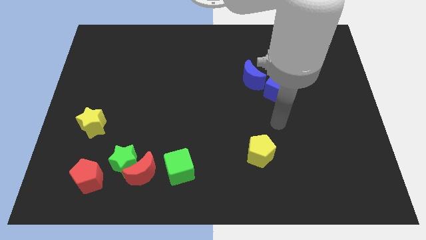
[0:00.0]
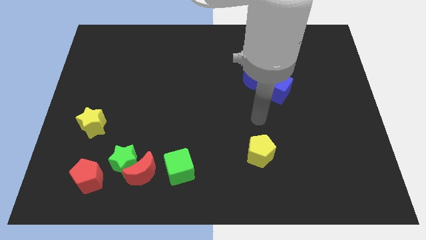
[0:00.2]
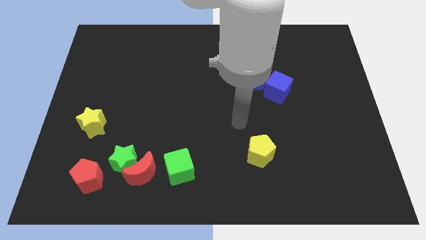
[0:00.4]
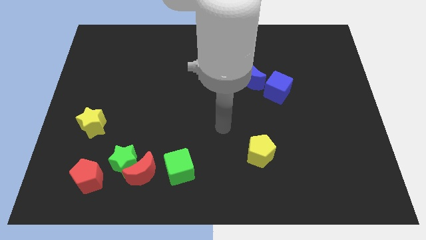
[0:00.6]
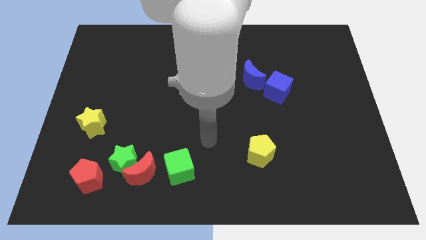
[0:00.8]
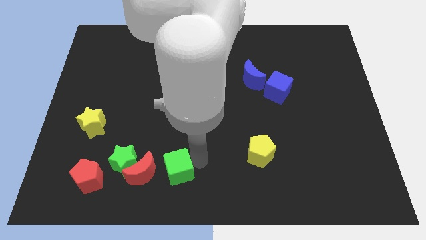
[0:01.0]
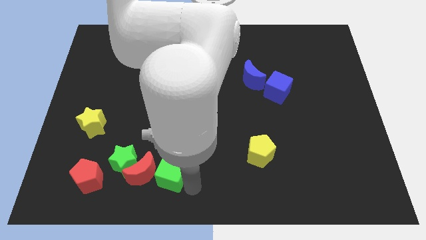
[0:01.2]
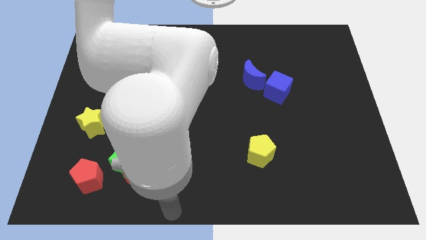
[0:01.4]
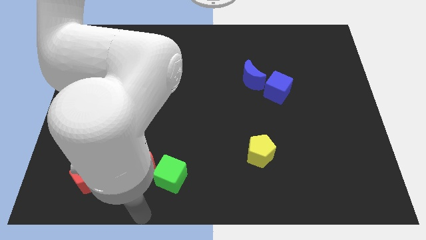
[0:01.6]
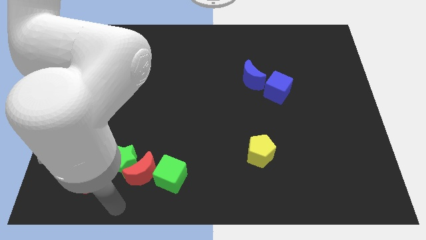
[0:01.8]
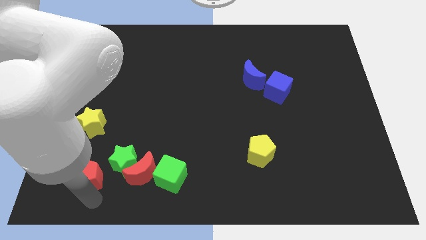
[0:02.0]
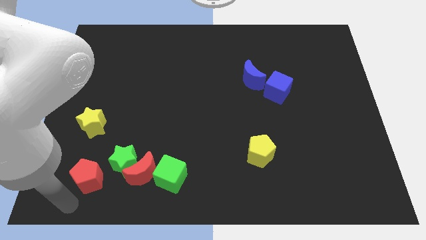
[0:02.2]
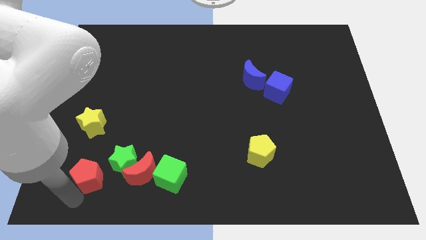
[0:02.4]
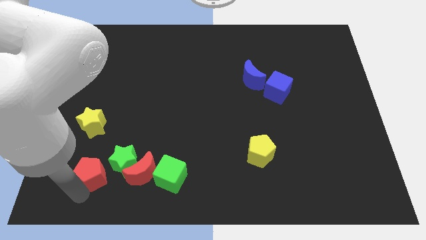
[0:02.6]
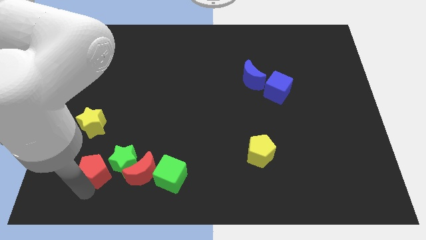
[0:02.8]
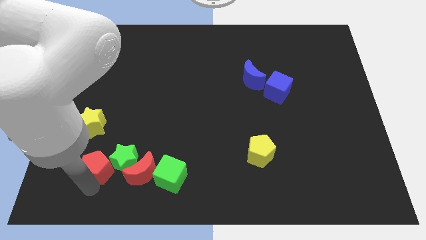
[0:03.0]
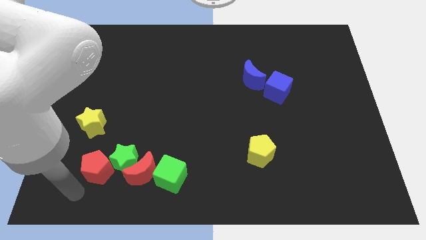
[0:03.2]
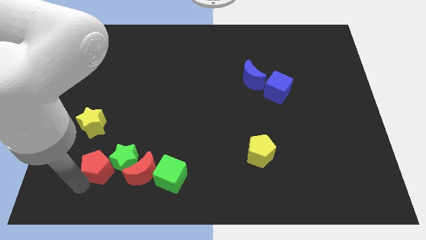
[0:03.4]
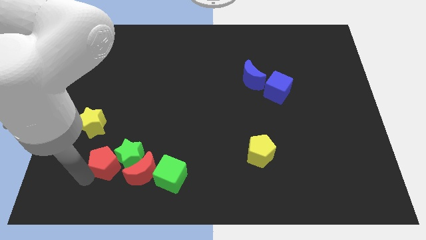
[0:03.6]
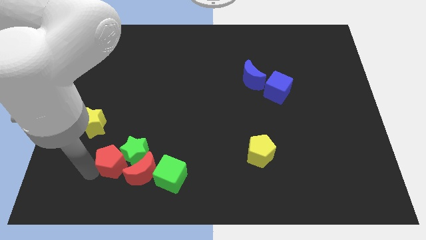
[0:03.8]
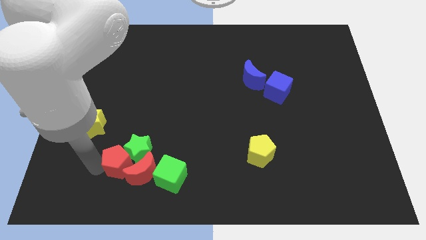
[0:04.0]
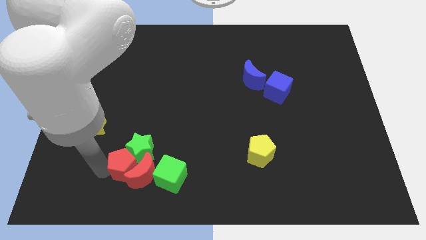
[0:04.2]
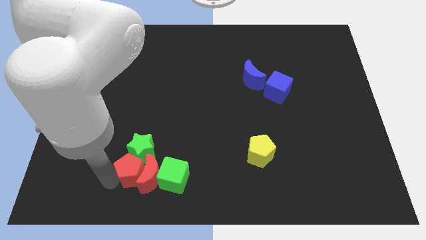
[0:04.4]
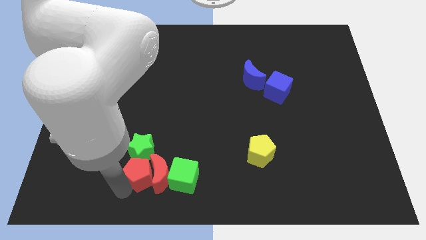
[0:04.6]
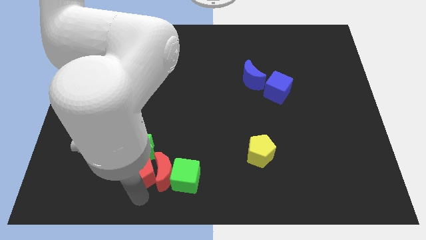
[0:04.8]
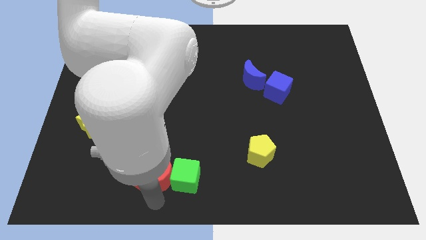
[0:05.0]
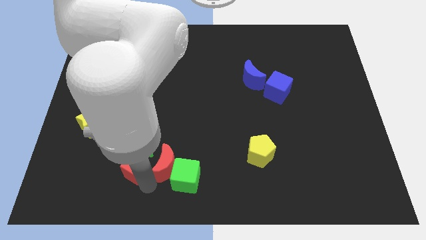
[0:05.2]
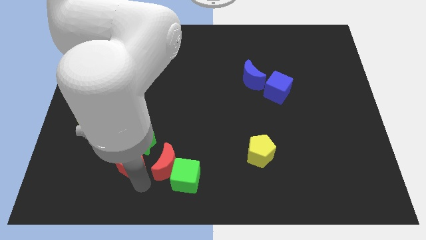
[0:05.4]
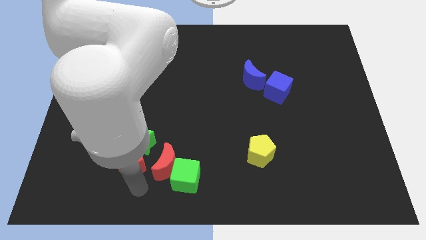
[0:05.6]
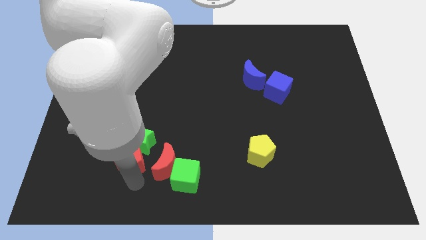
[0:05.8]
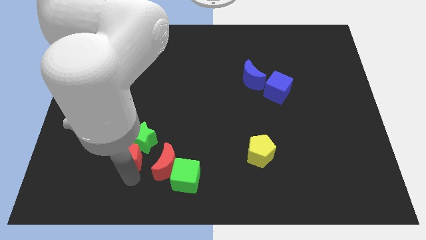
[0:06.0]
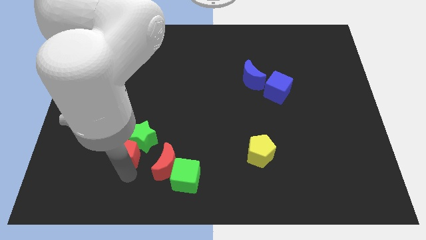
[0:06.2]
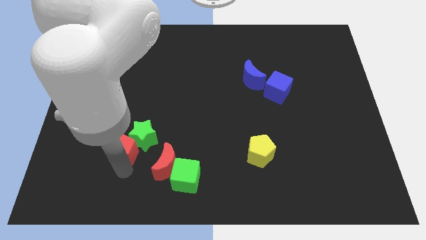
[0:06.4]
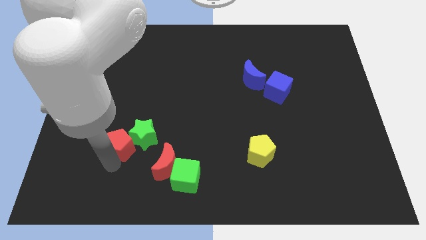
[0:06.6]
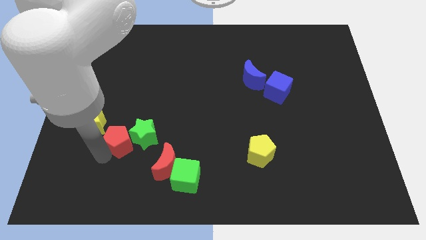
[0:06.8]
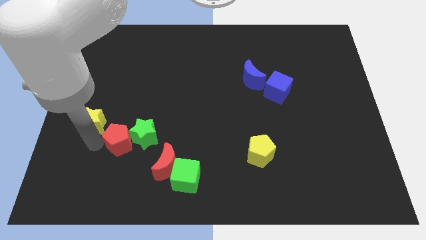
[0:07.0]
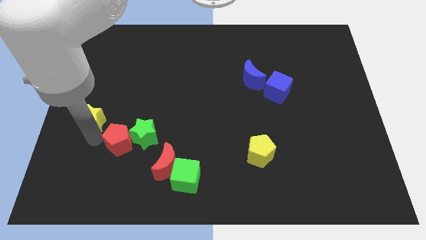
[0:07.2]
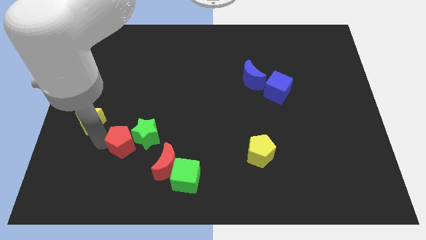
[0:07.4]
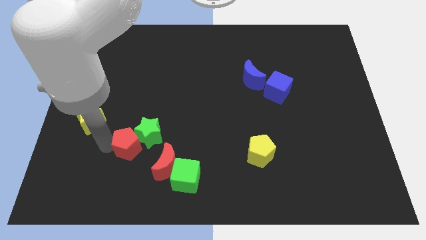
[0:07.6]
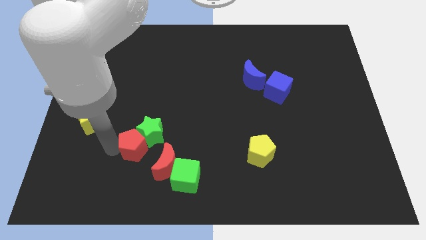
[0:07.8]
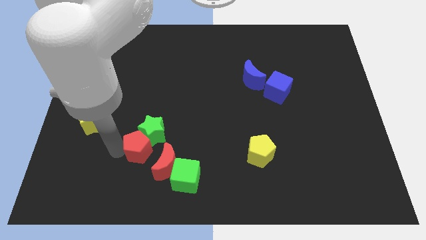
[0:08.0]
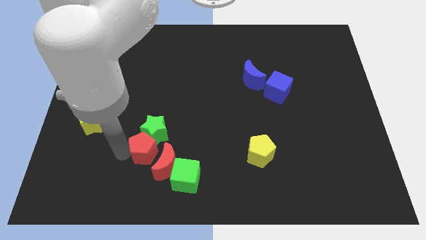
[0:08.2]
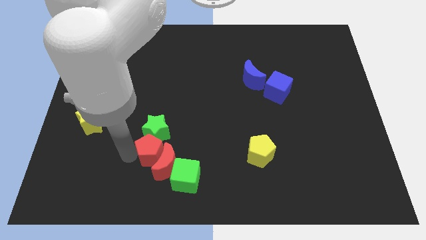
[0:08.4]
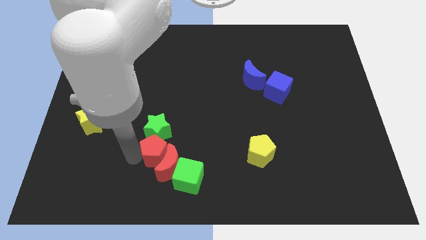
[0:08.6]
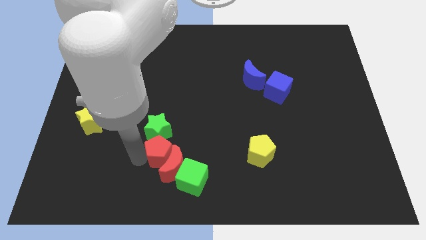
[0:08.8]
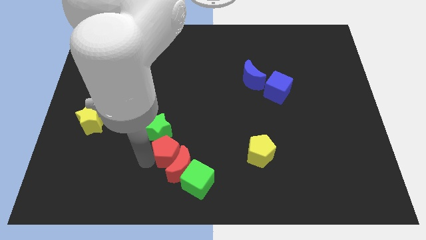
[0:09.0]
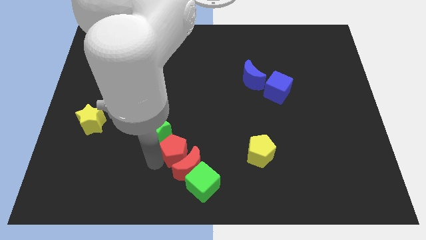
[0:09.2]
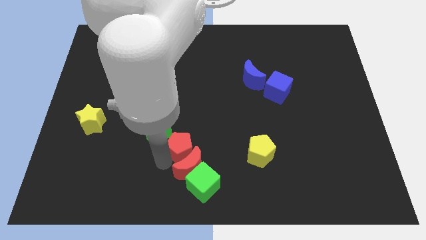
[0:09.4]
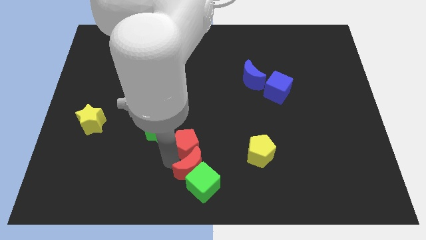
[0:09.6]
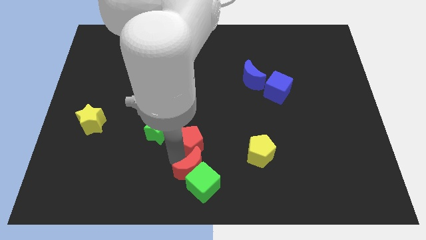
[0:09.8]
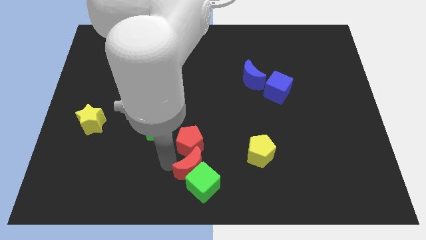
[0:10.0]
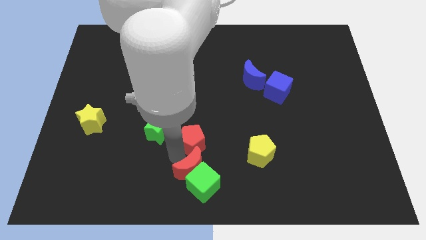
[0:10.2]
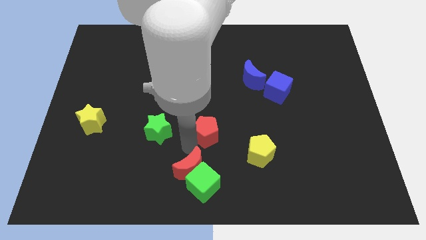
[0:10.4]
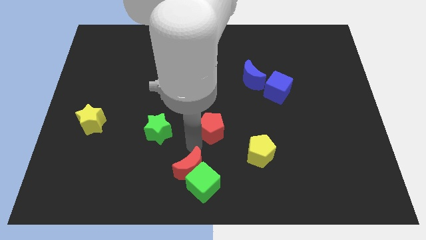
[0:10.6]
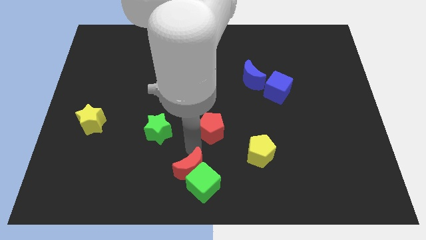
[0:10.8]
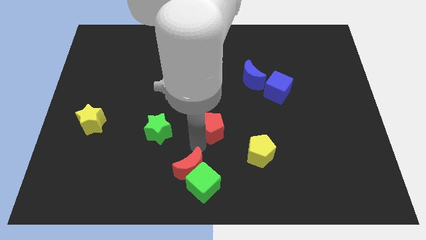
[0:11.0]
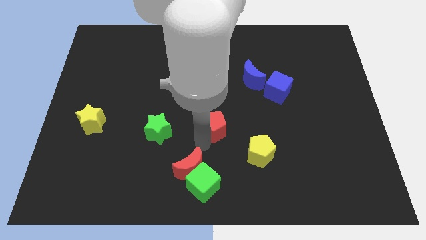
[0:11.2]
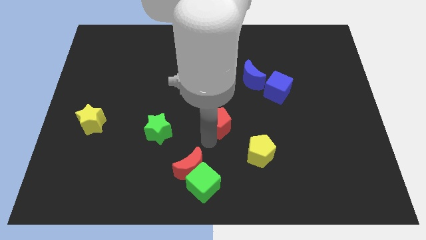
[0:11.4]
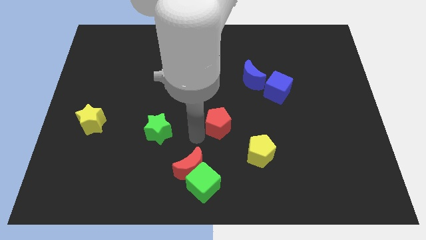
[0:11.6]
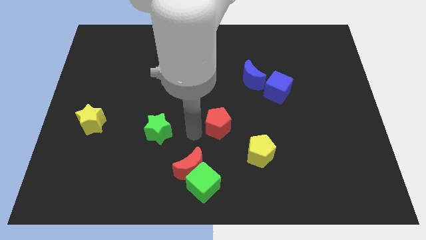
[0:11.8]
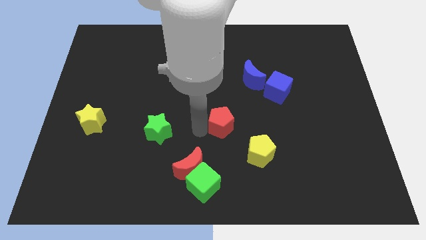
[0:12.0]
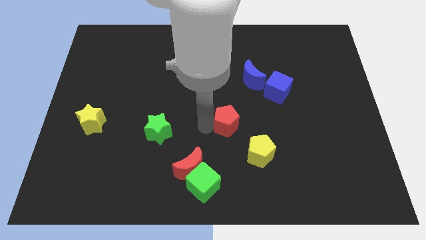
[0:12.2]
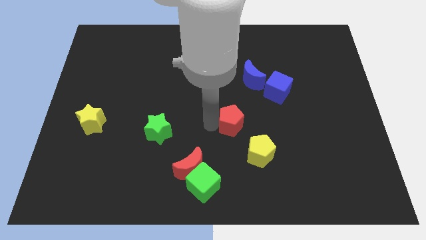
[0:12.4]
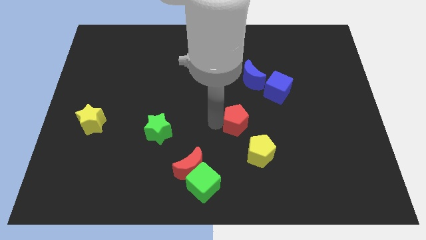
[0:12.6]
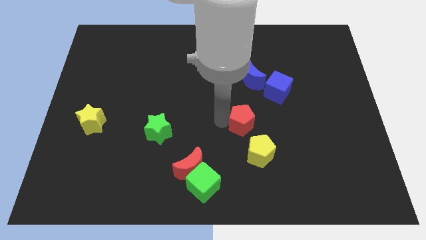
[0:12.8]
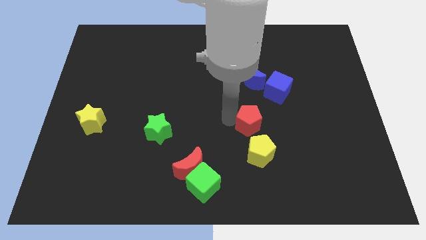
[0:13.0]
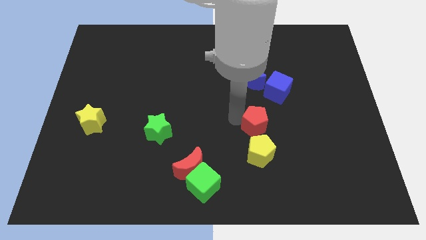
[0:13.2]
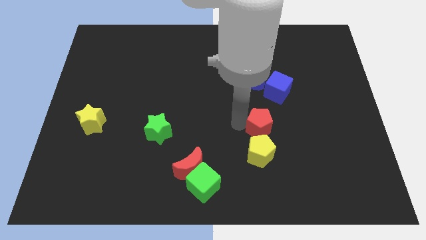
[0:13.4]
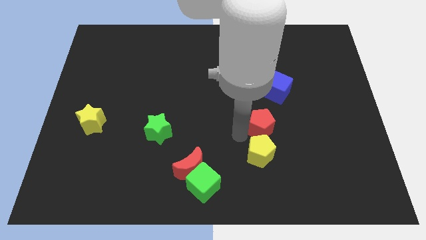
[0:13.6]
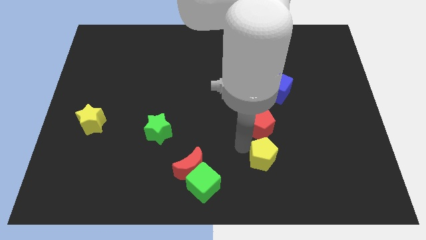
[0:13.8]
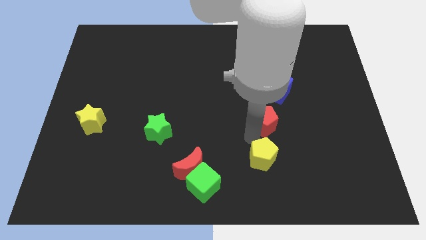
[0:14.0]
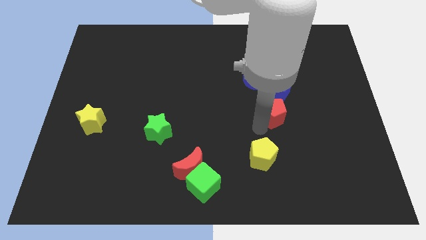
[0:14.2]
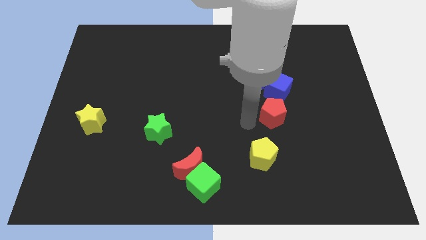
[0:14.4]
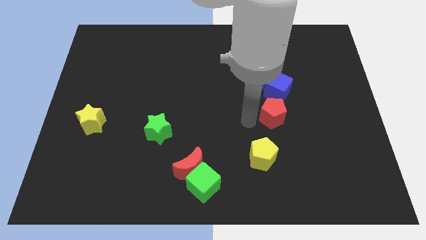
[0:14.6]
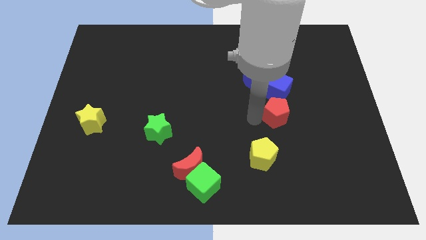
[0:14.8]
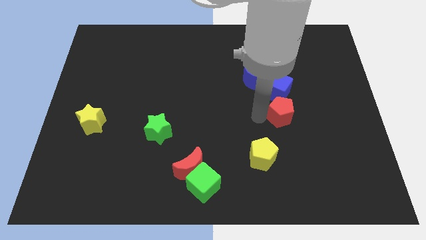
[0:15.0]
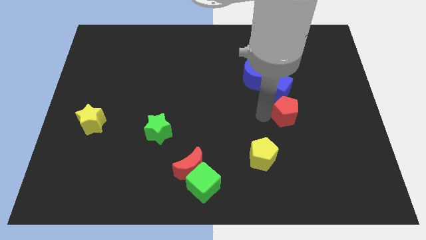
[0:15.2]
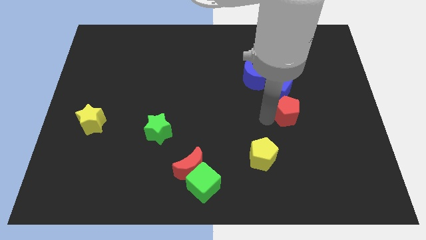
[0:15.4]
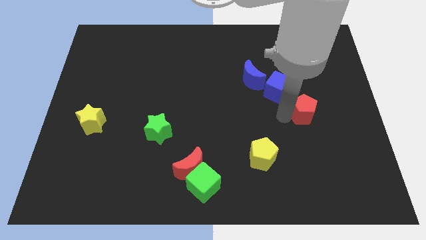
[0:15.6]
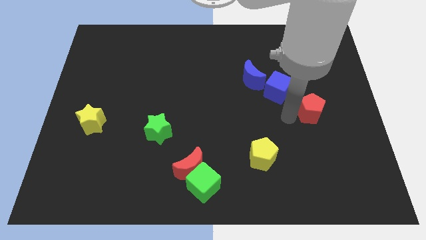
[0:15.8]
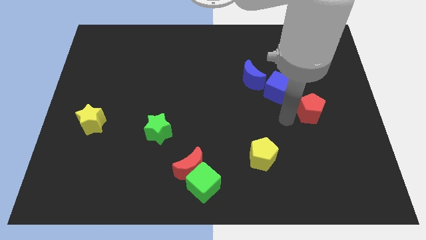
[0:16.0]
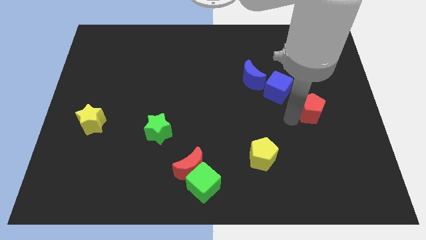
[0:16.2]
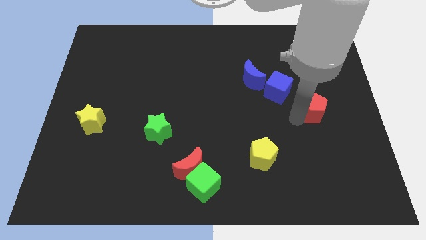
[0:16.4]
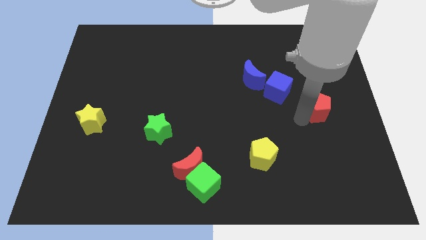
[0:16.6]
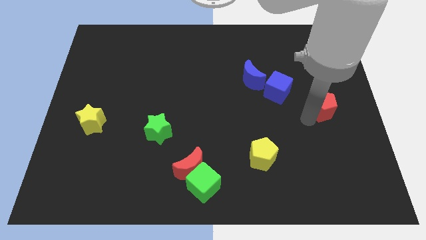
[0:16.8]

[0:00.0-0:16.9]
put the red pentagon to the center right
